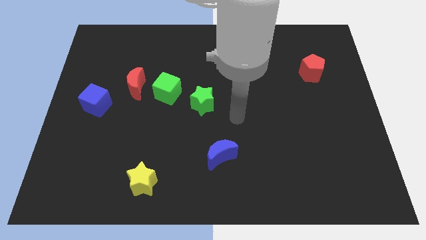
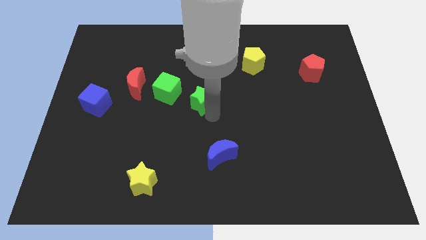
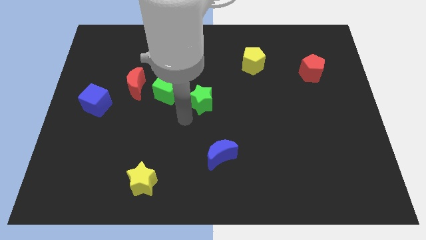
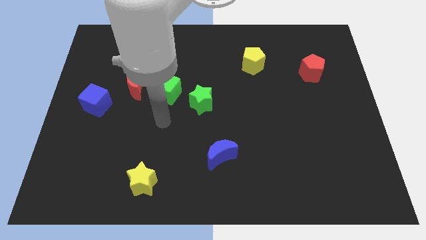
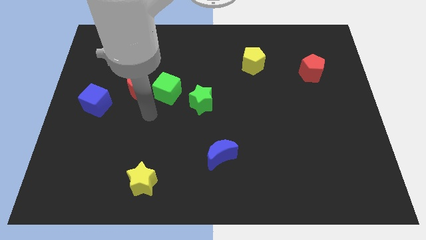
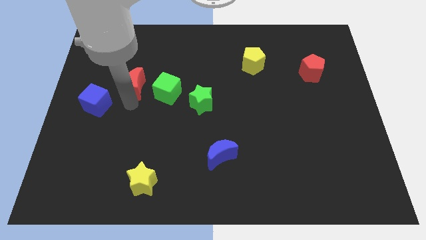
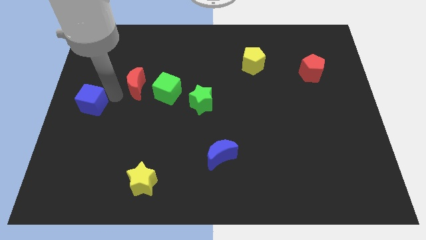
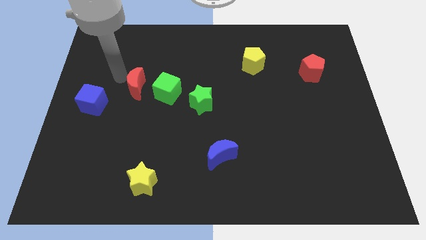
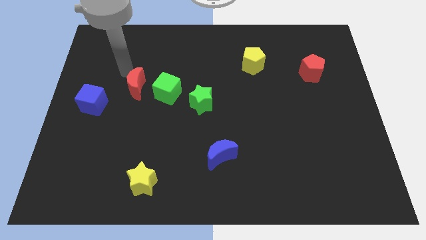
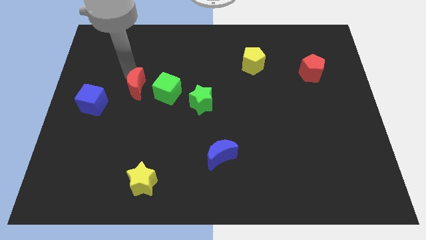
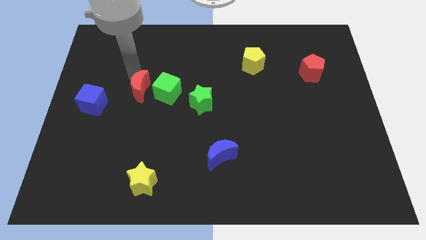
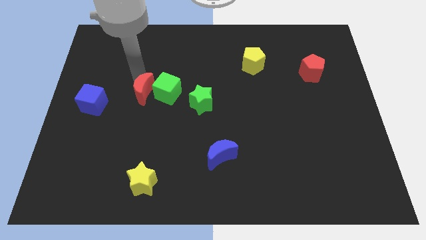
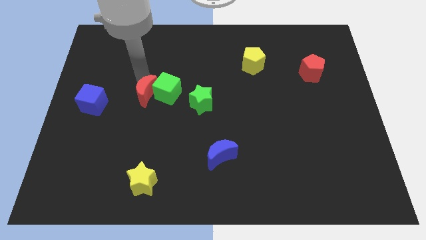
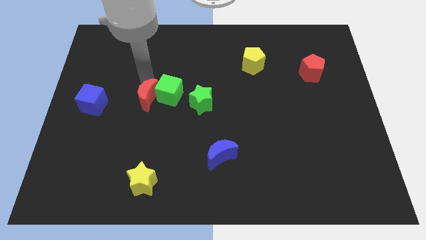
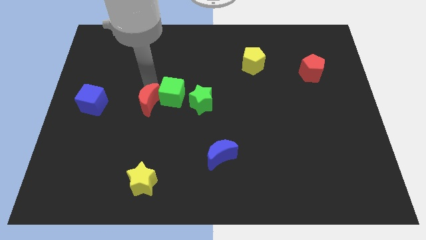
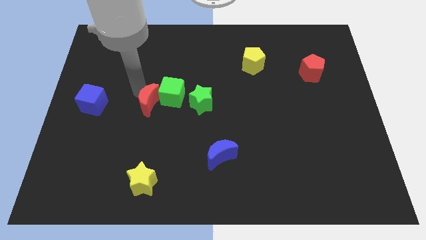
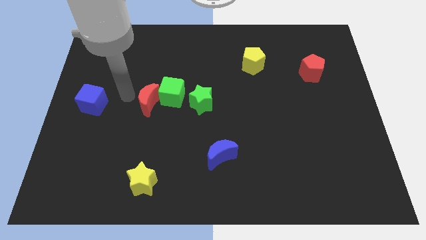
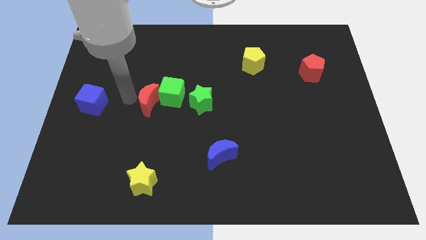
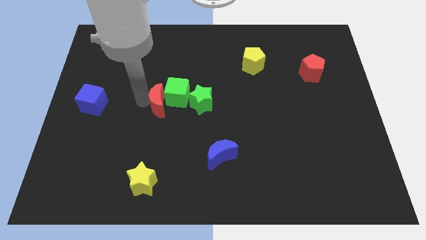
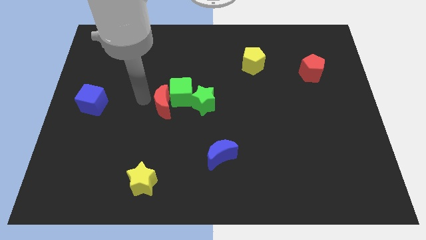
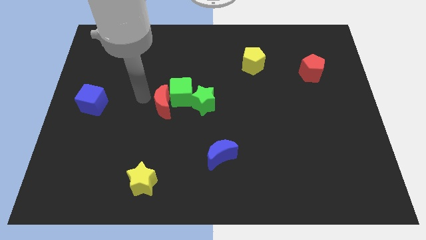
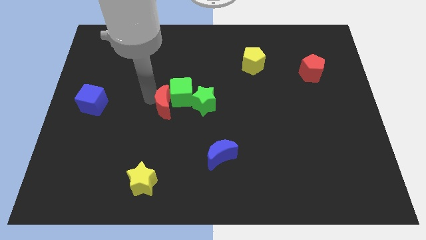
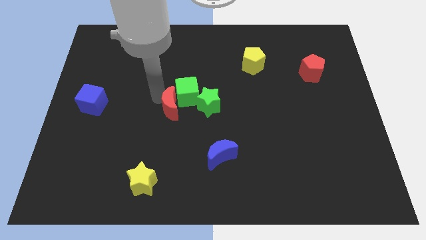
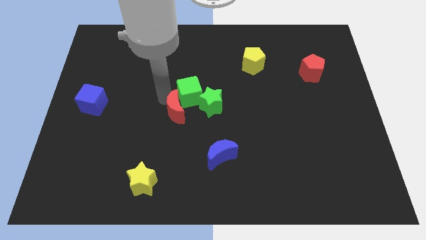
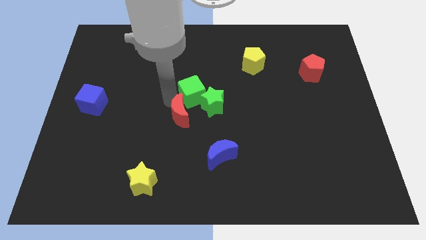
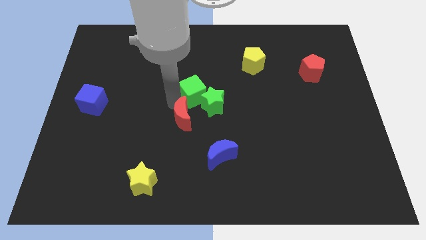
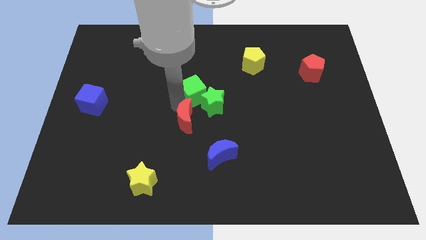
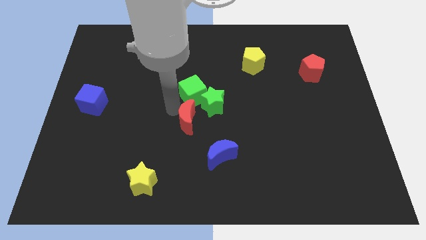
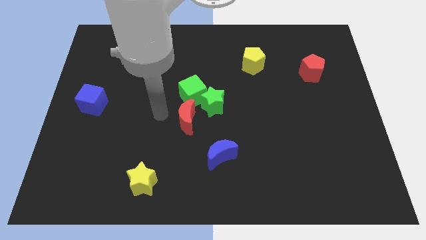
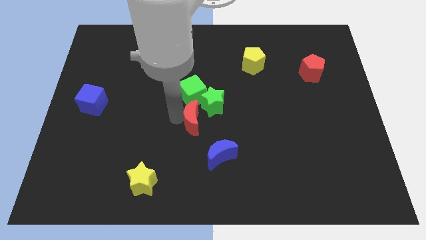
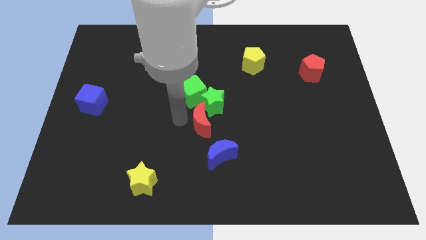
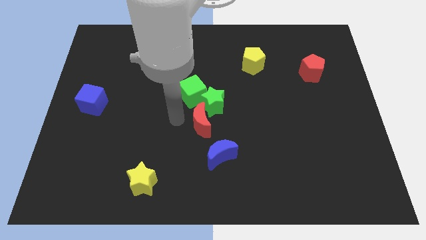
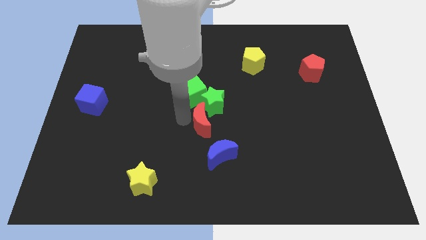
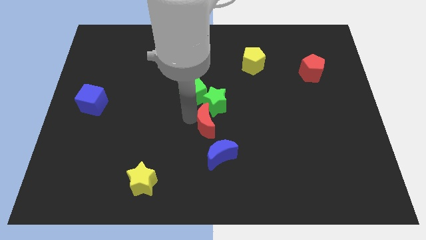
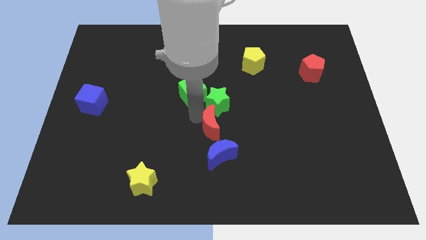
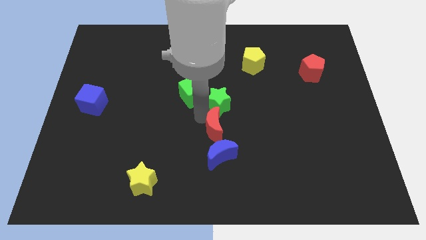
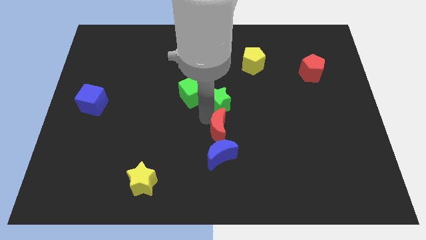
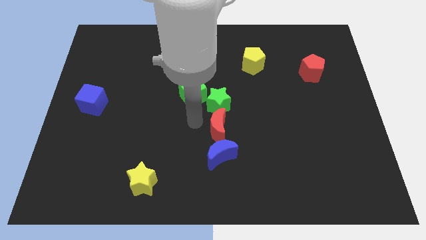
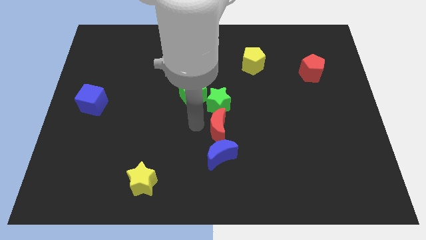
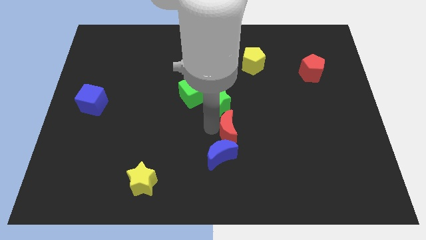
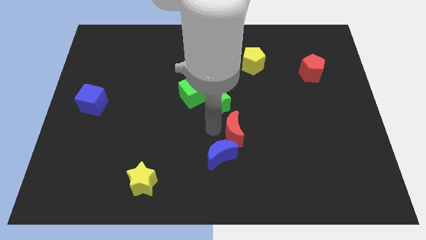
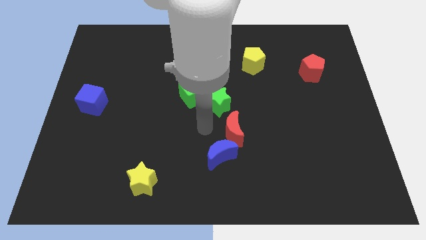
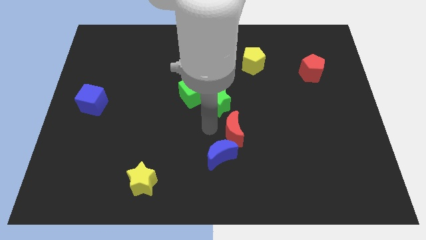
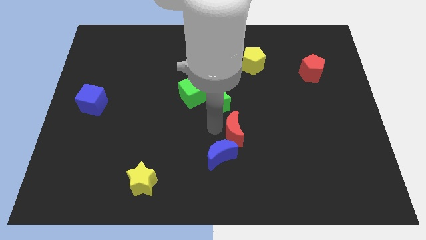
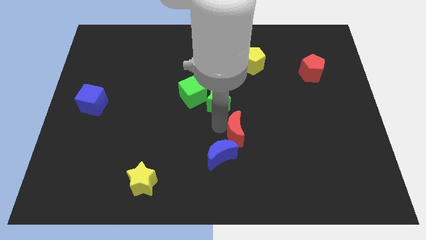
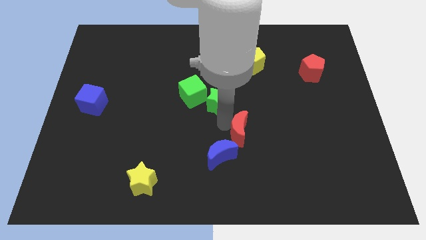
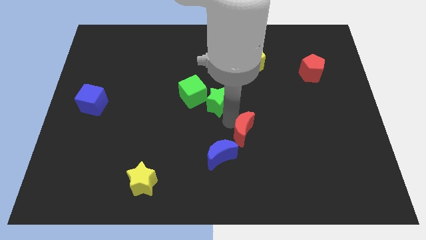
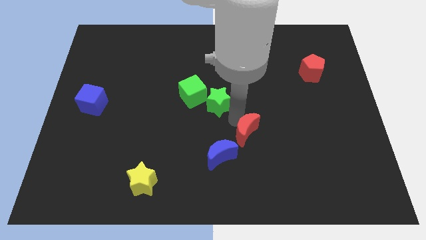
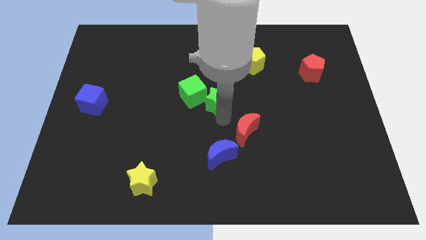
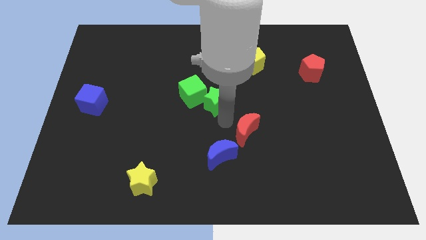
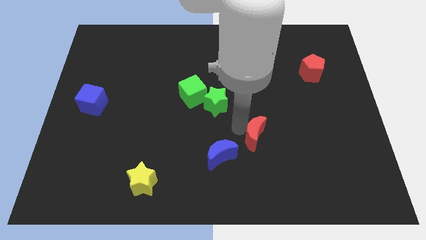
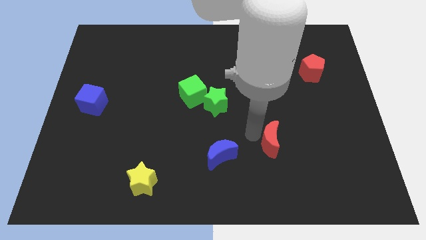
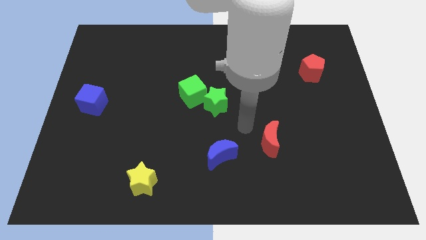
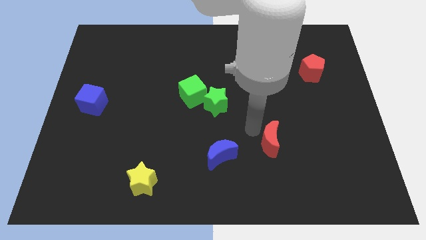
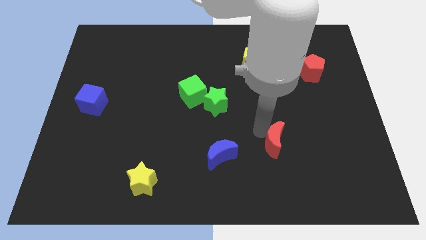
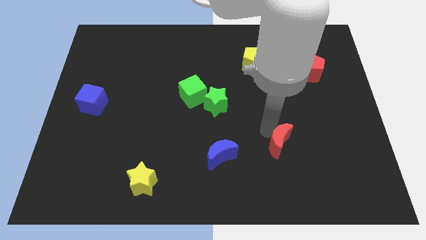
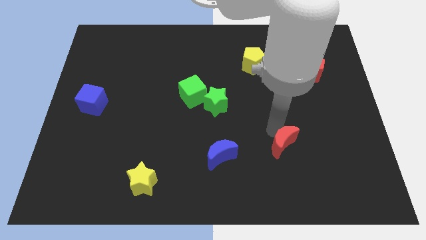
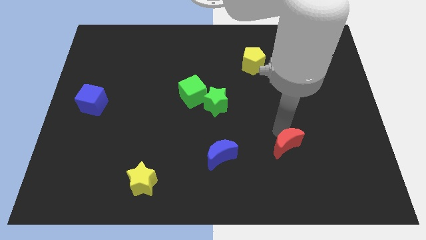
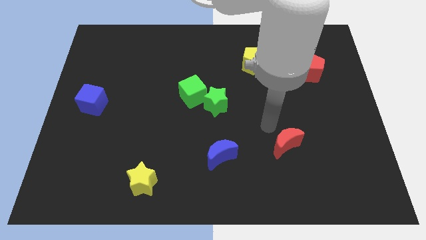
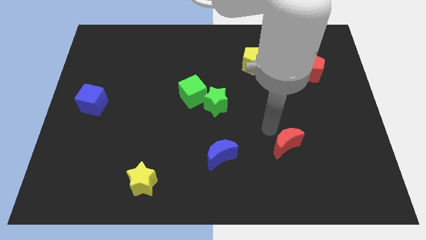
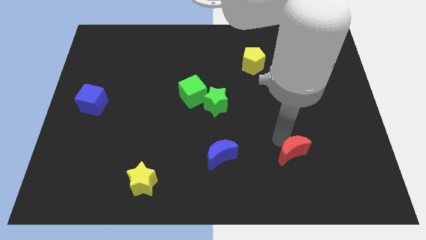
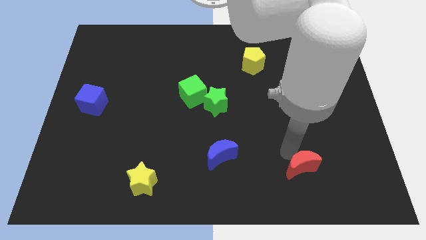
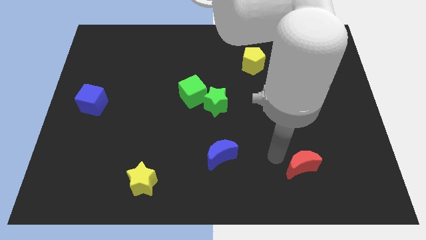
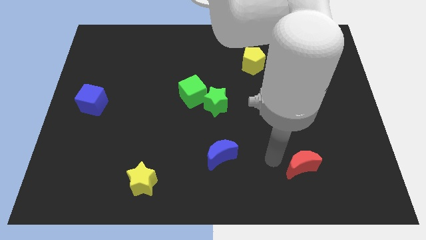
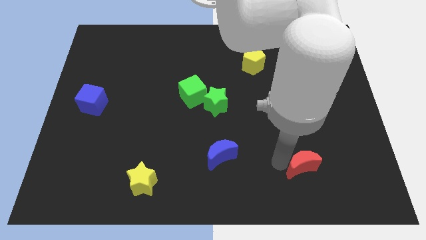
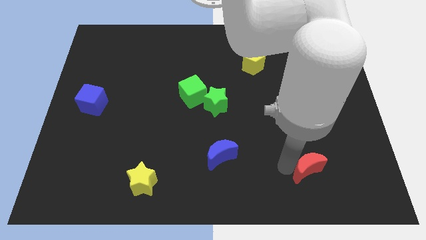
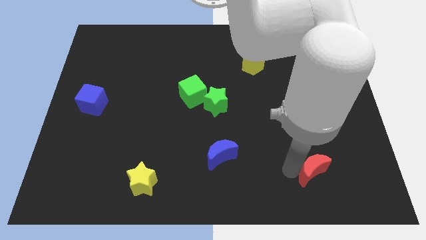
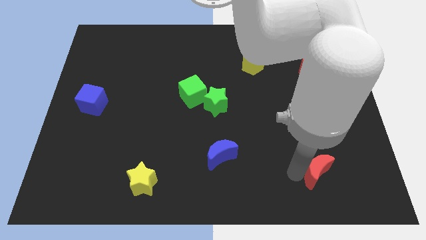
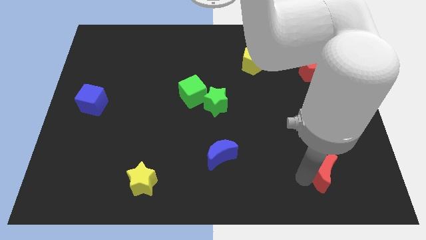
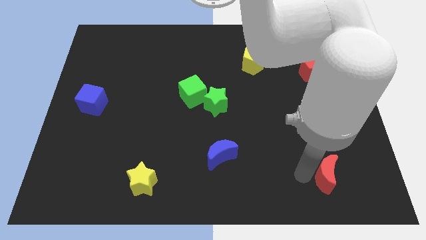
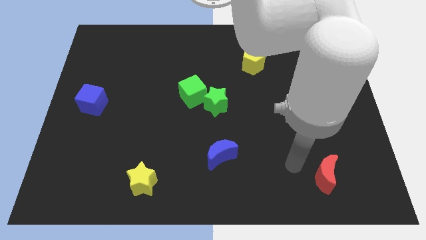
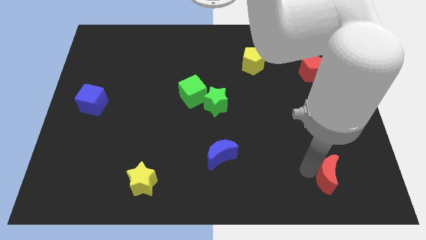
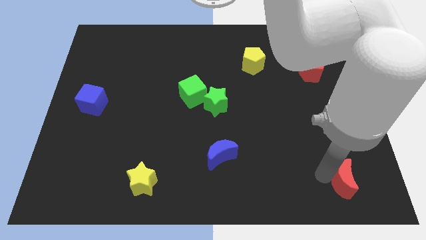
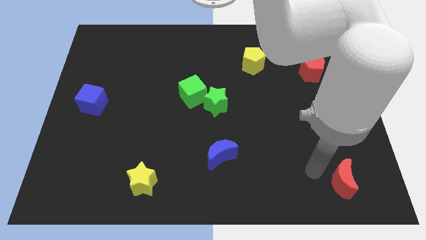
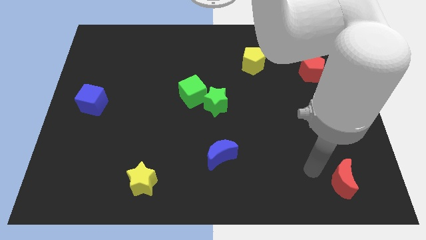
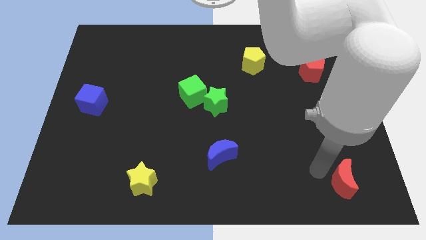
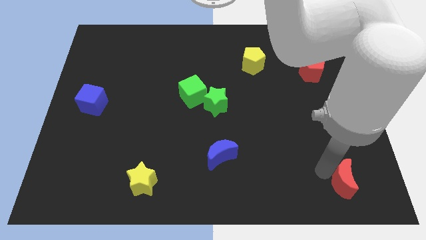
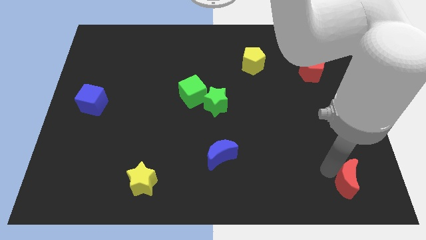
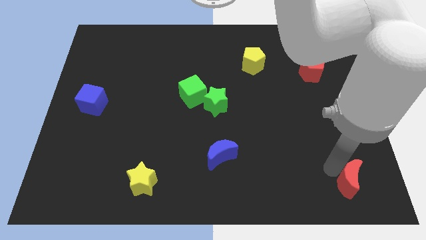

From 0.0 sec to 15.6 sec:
push the red moon to the bottom right corner
